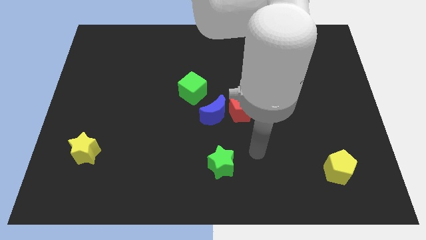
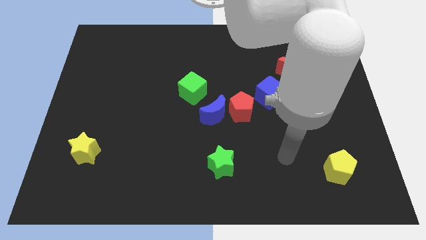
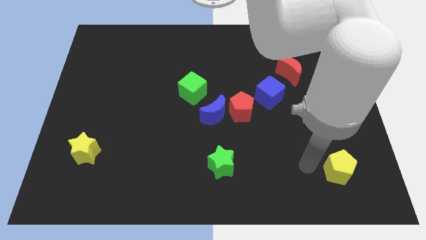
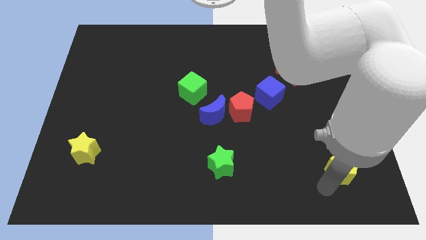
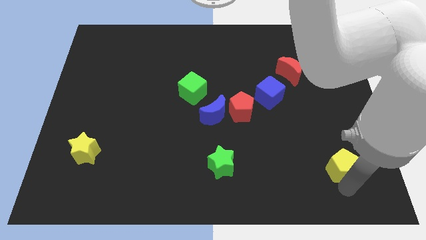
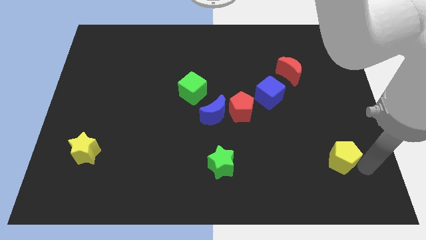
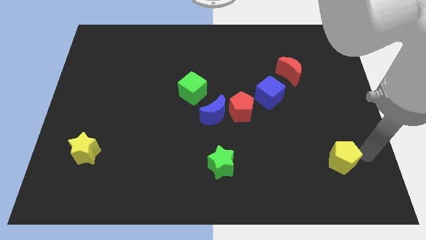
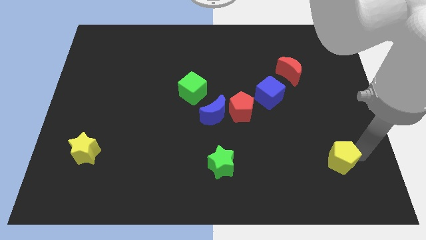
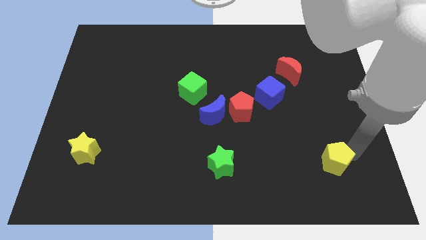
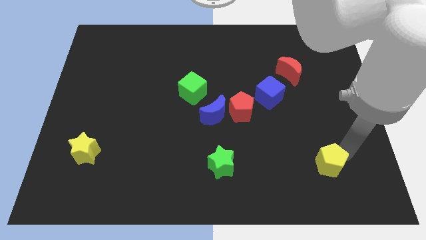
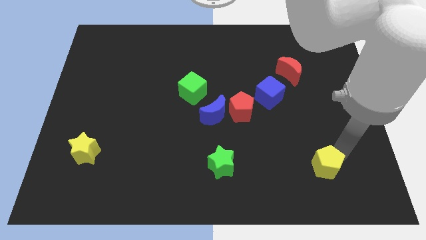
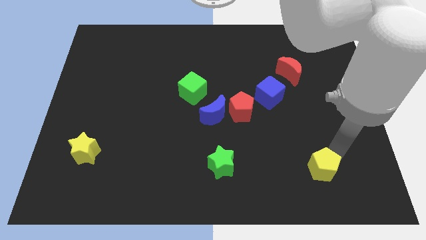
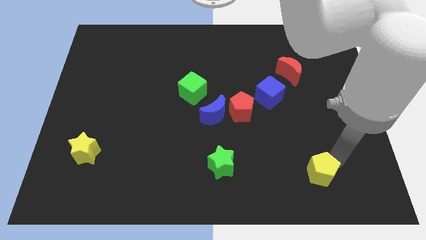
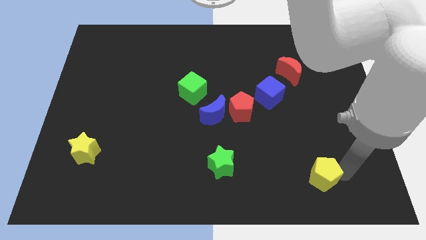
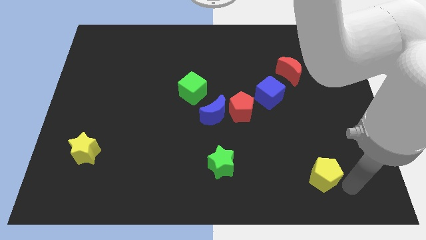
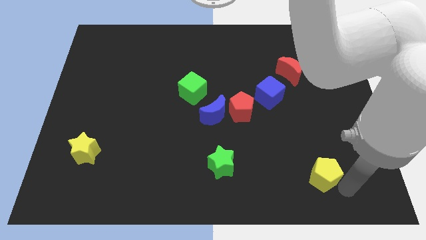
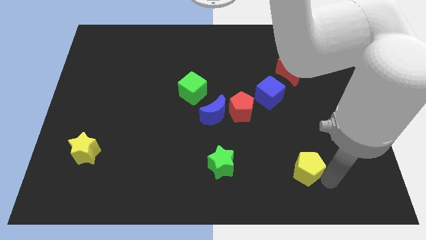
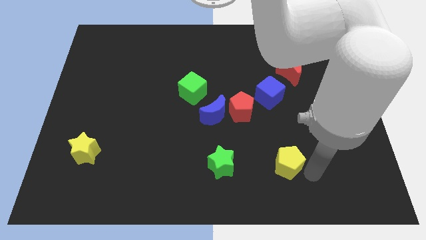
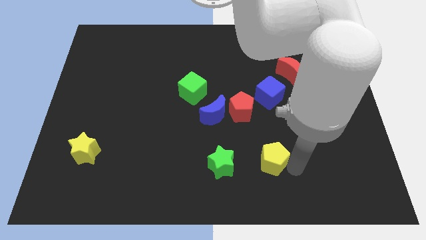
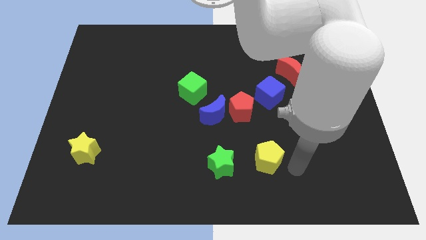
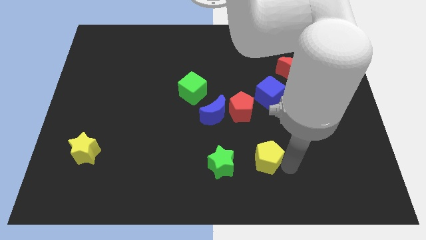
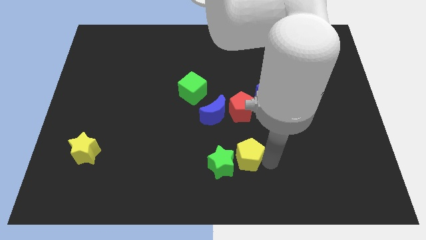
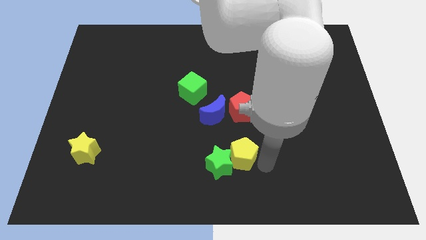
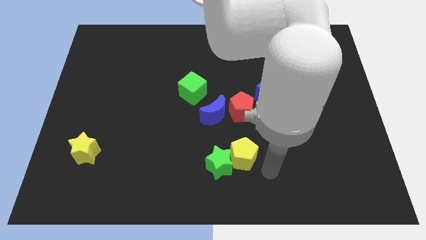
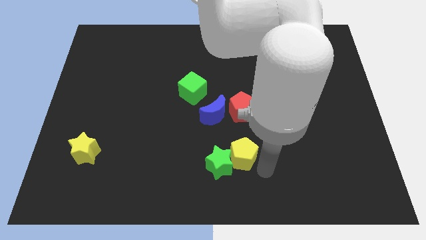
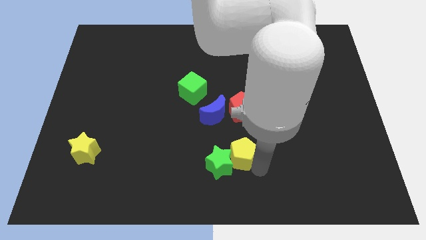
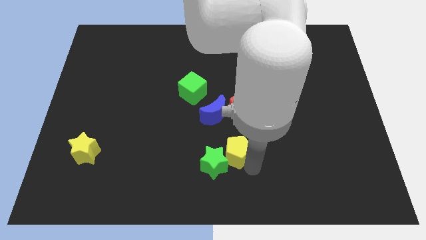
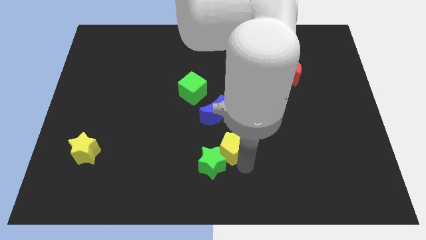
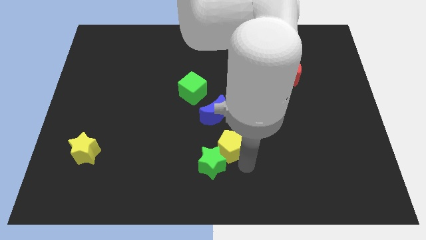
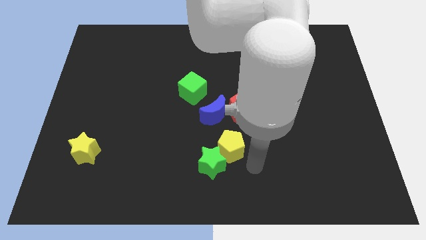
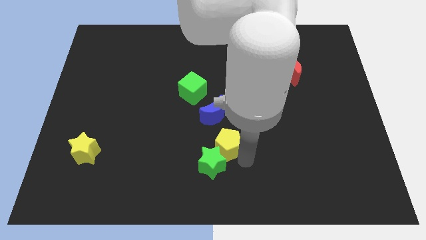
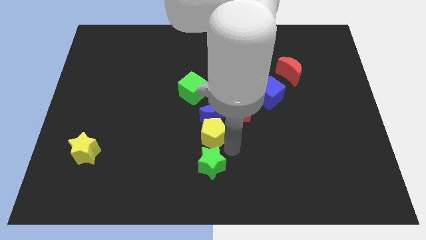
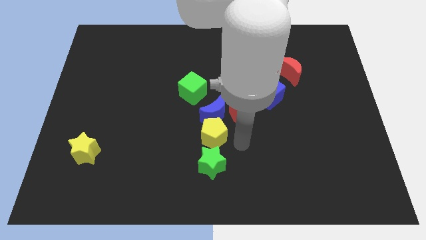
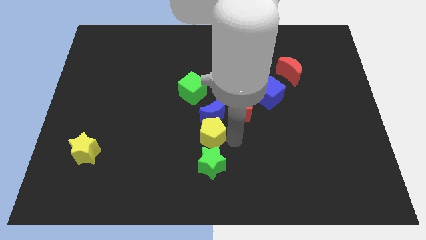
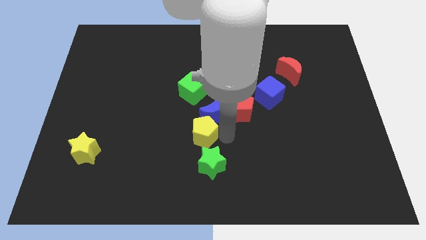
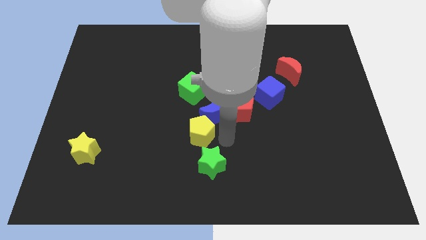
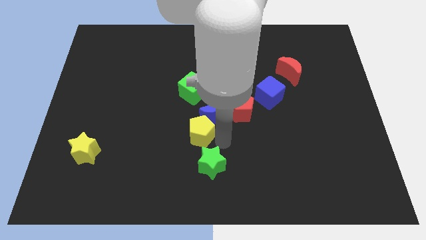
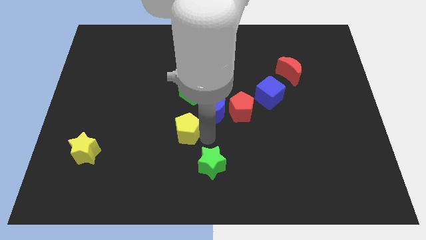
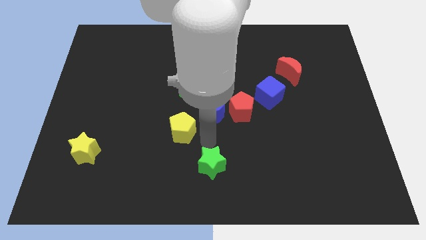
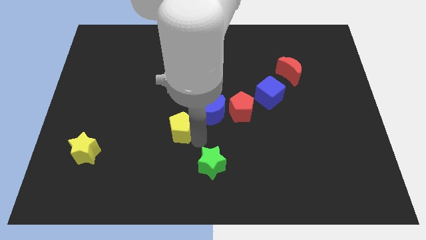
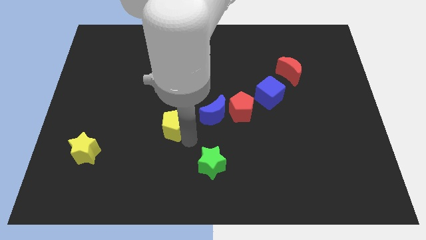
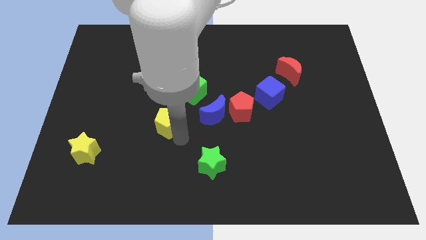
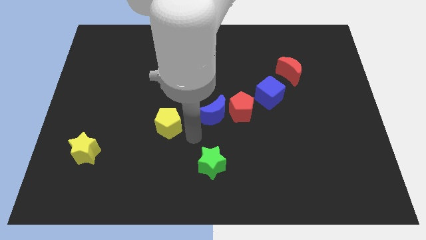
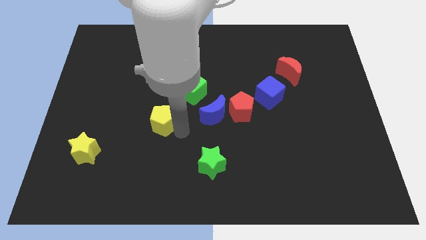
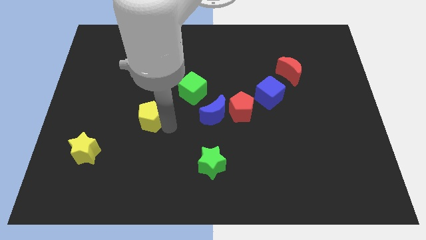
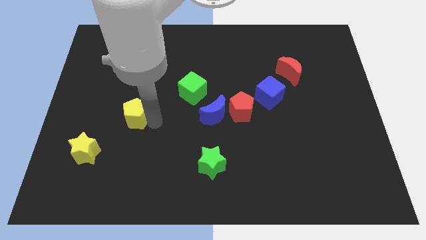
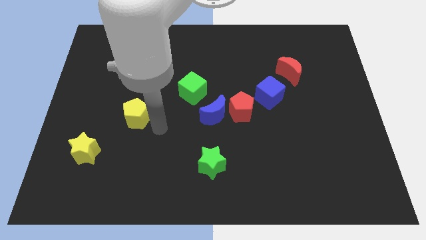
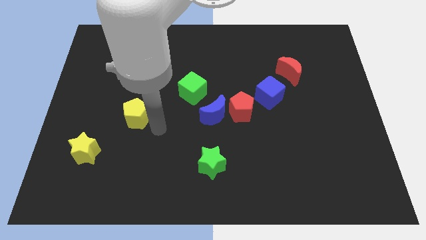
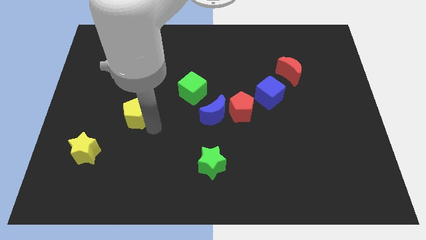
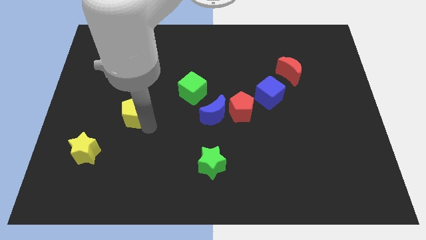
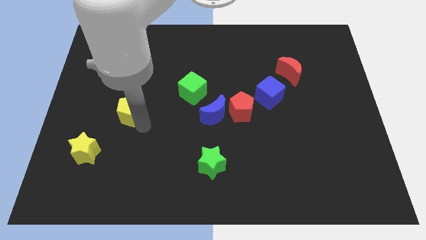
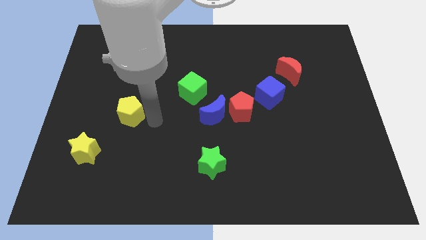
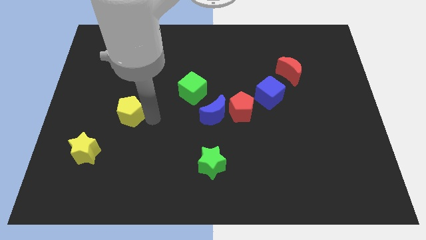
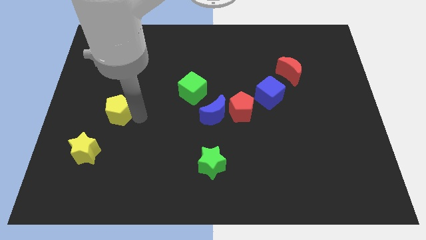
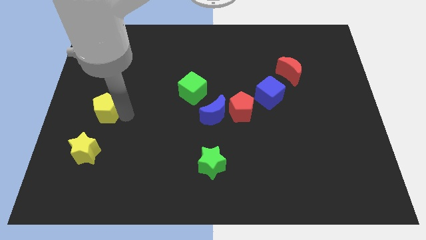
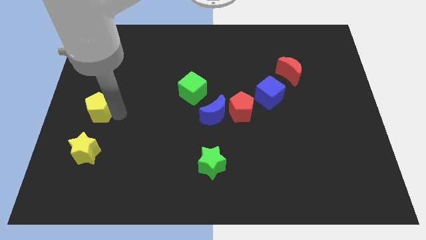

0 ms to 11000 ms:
move the yellow pentagon to the left side of the board
